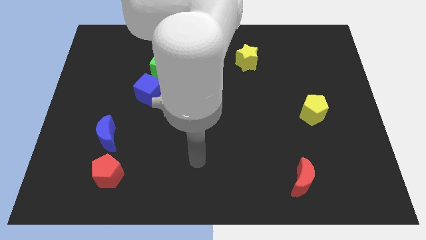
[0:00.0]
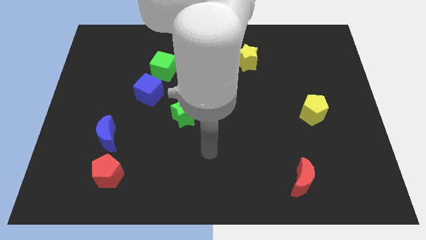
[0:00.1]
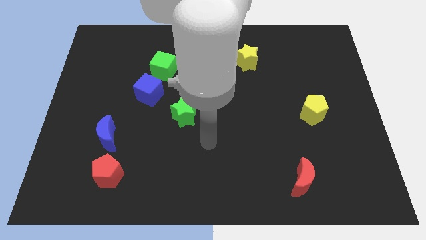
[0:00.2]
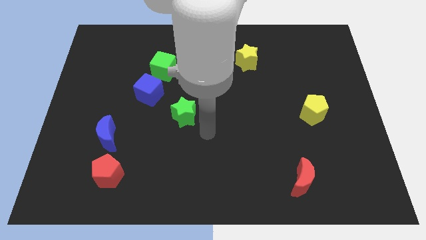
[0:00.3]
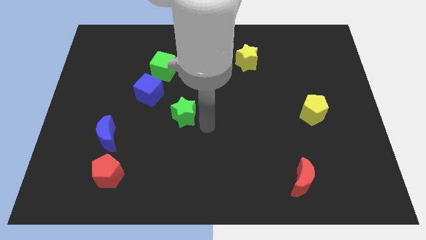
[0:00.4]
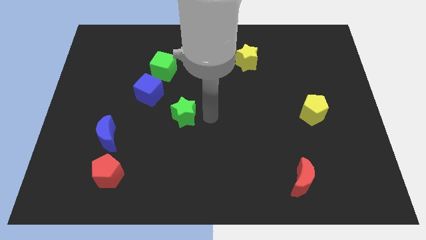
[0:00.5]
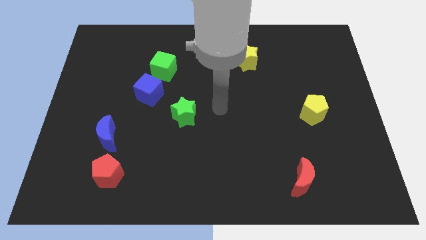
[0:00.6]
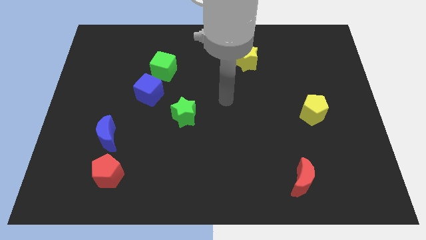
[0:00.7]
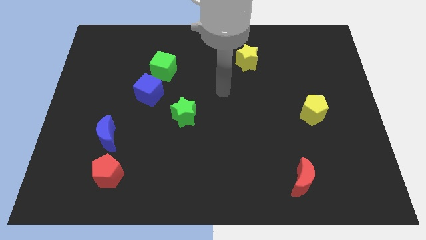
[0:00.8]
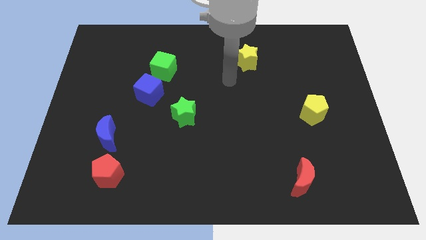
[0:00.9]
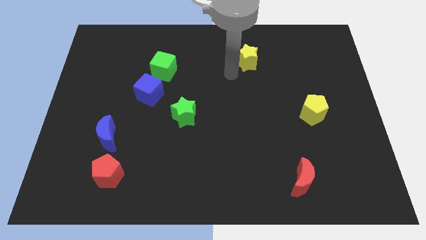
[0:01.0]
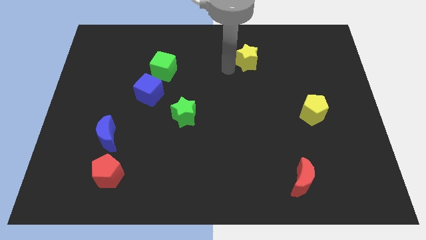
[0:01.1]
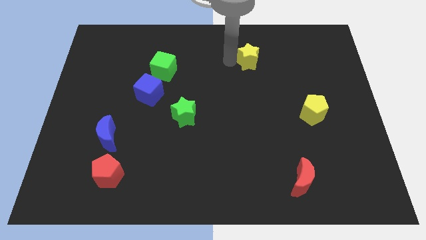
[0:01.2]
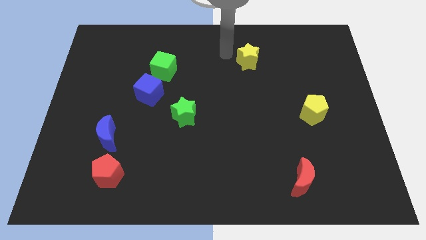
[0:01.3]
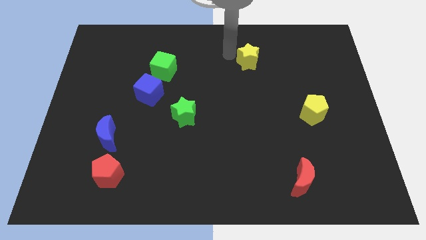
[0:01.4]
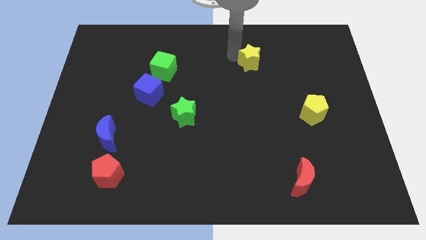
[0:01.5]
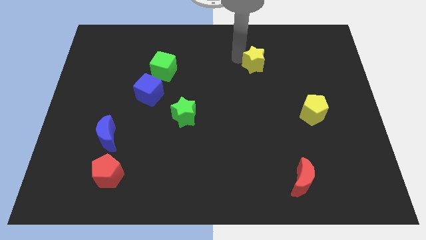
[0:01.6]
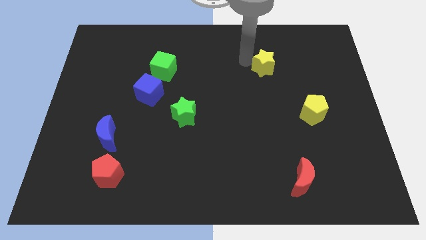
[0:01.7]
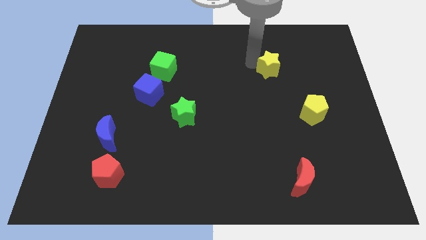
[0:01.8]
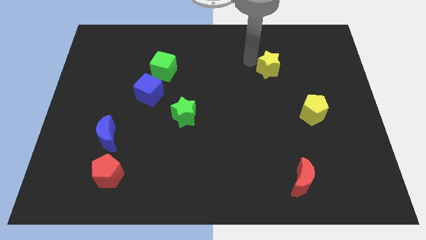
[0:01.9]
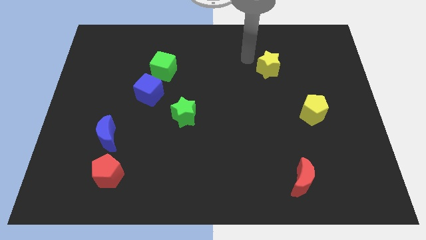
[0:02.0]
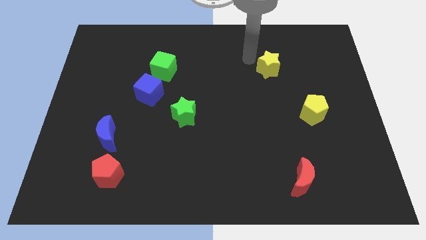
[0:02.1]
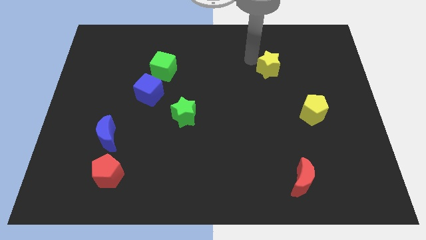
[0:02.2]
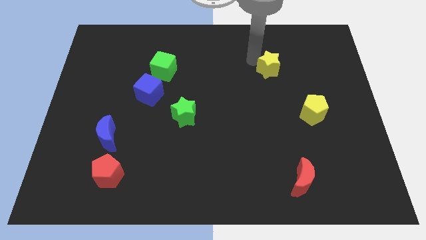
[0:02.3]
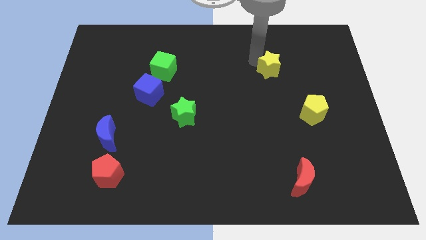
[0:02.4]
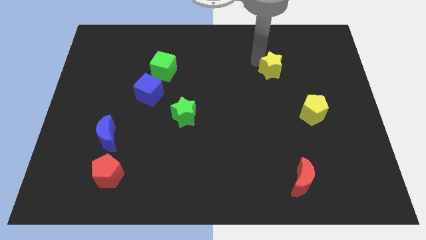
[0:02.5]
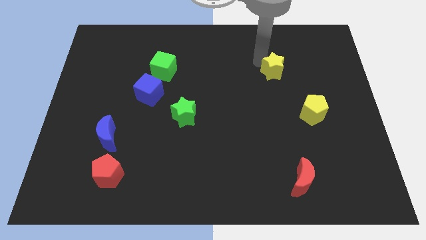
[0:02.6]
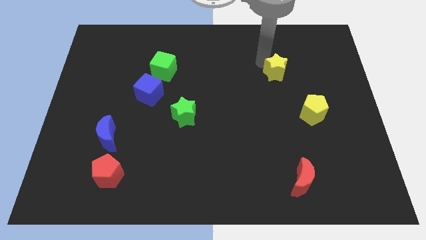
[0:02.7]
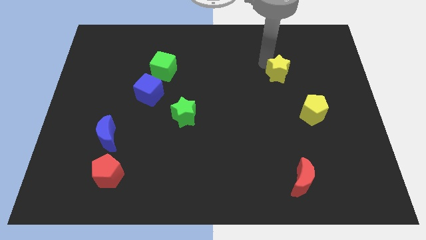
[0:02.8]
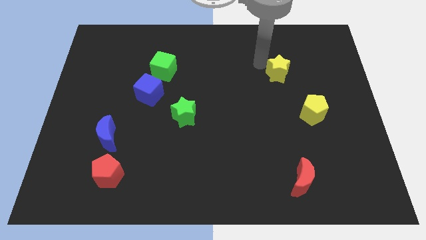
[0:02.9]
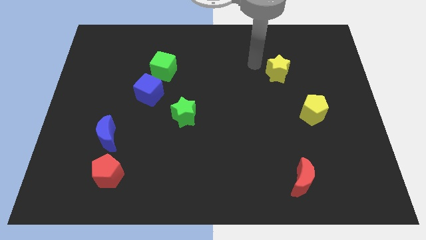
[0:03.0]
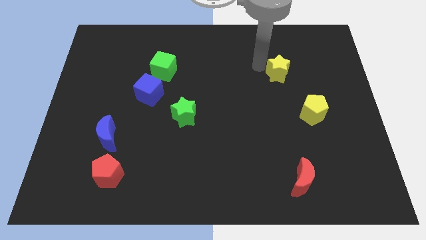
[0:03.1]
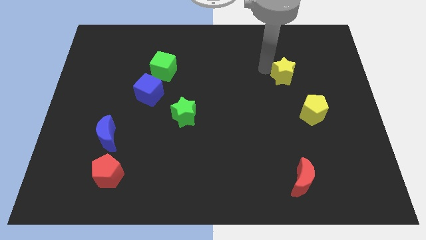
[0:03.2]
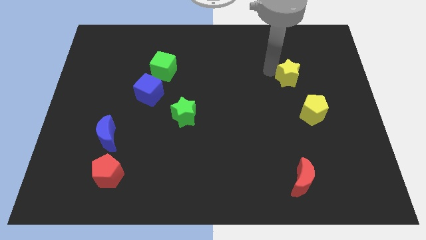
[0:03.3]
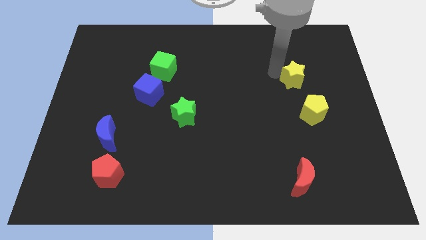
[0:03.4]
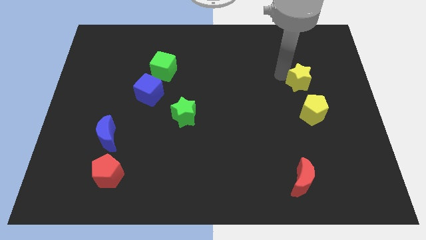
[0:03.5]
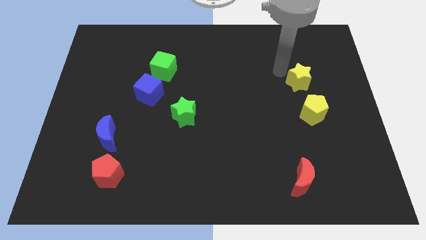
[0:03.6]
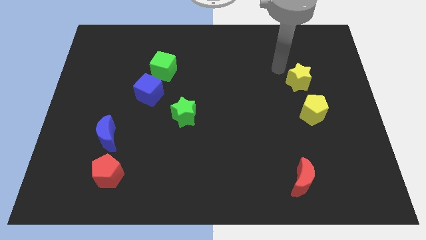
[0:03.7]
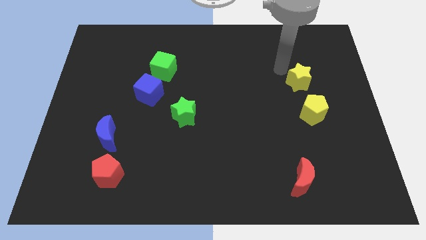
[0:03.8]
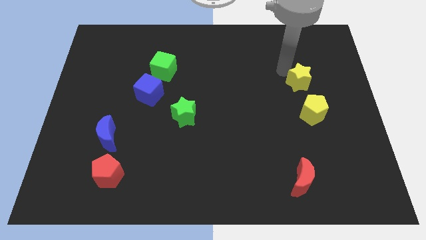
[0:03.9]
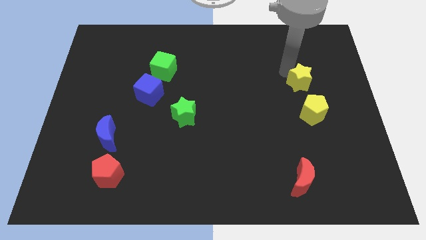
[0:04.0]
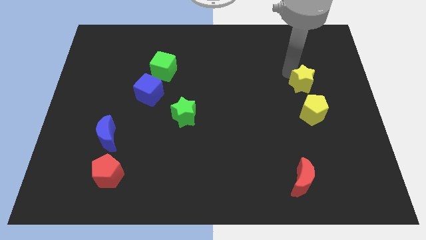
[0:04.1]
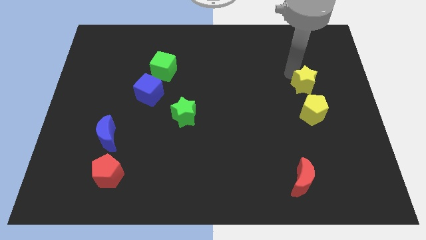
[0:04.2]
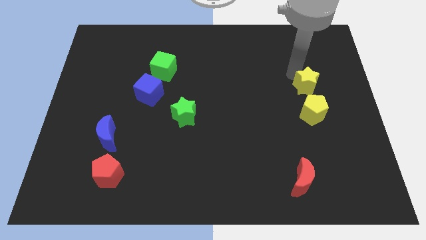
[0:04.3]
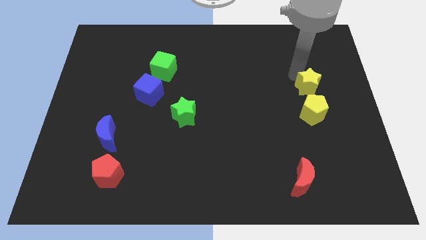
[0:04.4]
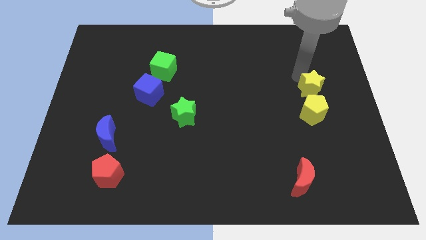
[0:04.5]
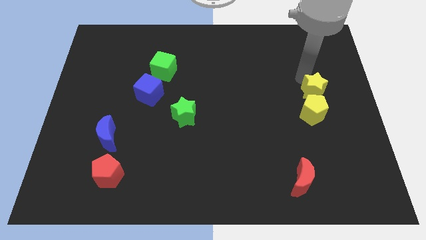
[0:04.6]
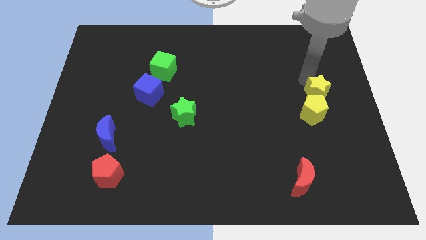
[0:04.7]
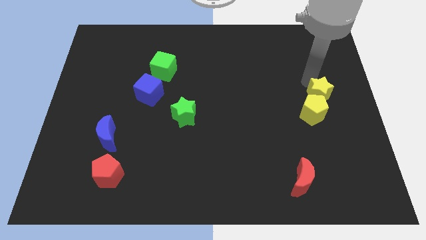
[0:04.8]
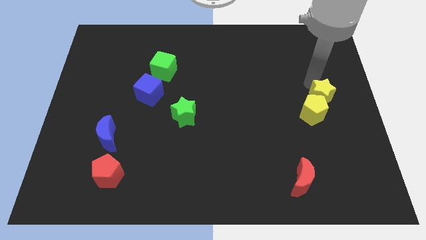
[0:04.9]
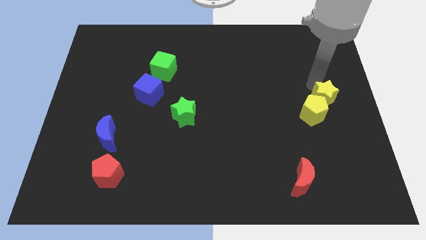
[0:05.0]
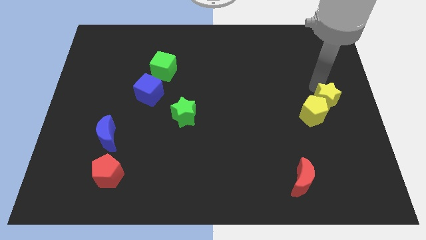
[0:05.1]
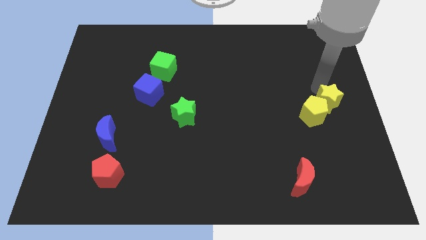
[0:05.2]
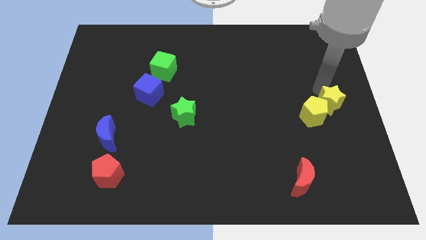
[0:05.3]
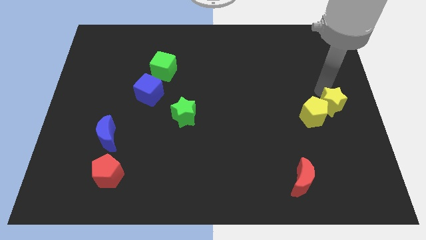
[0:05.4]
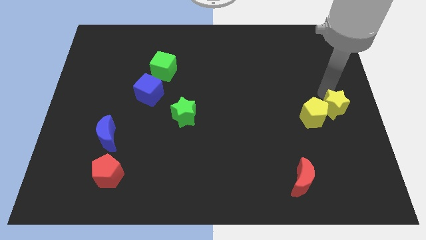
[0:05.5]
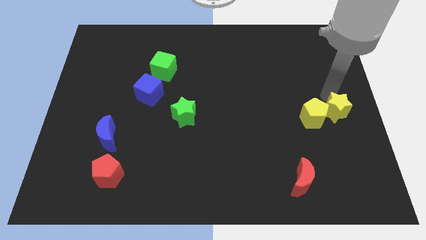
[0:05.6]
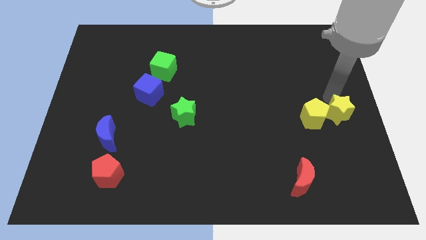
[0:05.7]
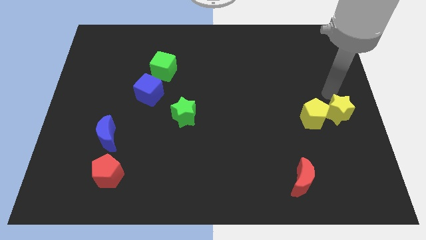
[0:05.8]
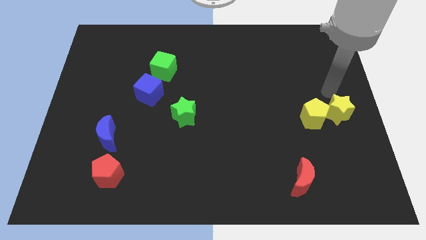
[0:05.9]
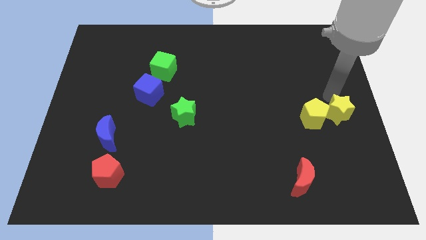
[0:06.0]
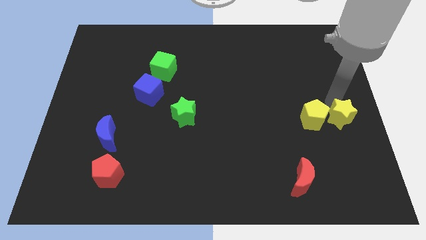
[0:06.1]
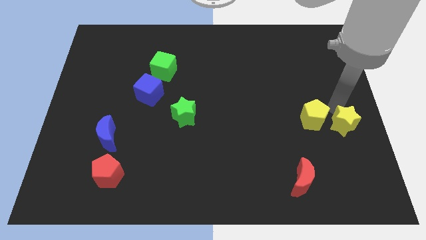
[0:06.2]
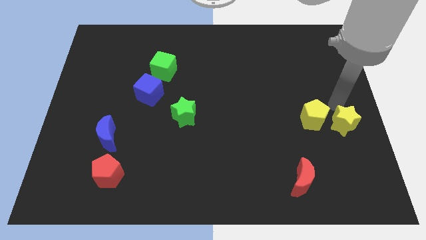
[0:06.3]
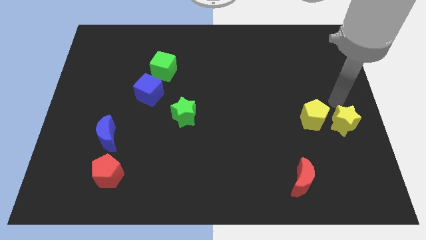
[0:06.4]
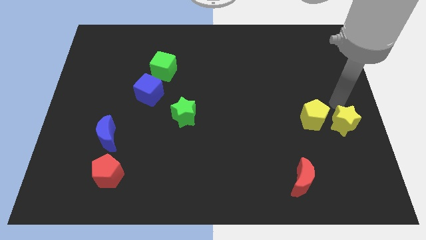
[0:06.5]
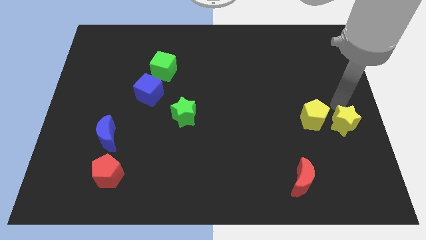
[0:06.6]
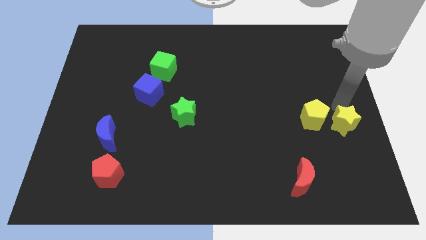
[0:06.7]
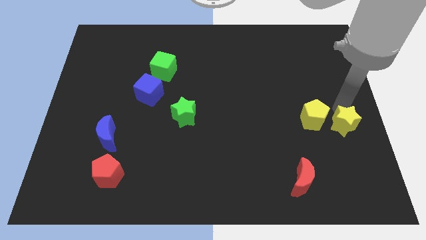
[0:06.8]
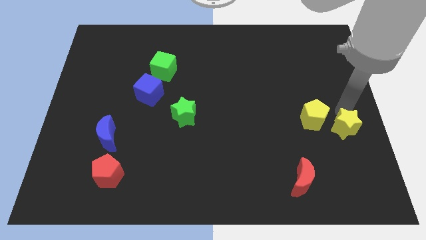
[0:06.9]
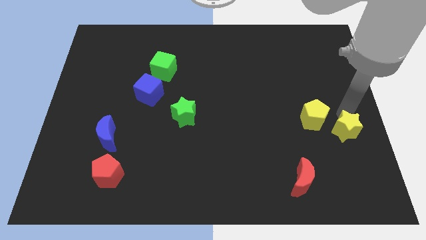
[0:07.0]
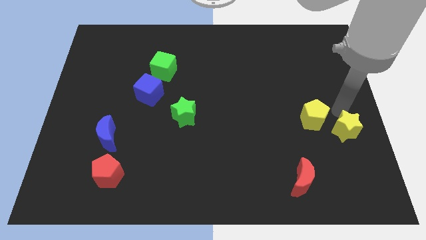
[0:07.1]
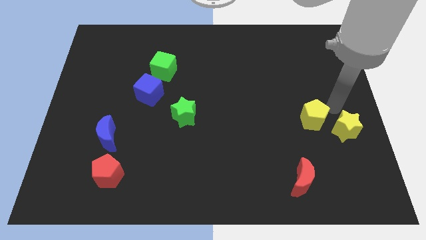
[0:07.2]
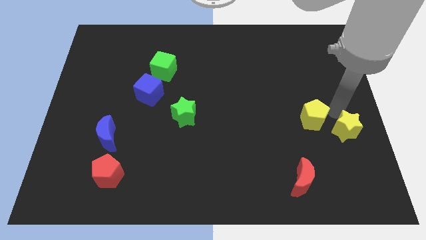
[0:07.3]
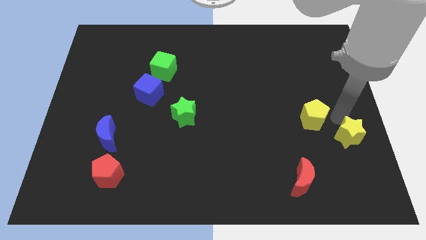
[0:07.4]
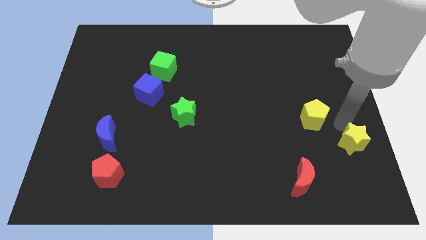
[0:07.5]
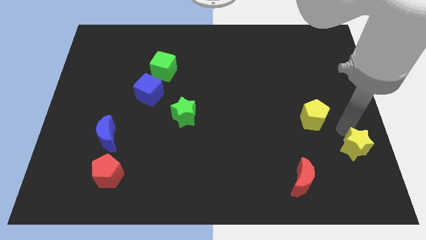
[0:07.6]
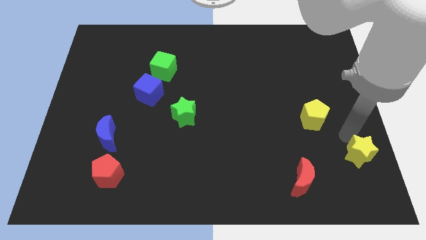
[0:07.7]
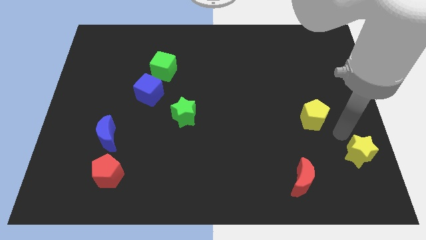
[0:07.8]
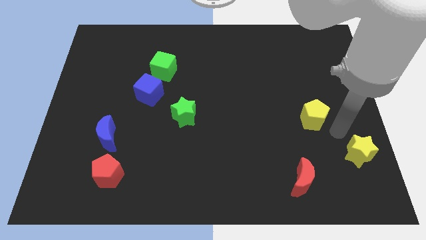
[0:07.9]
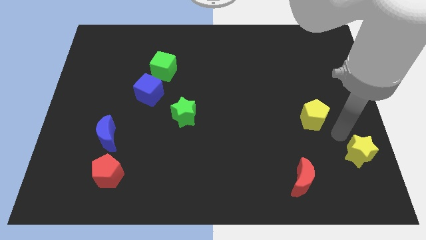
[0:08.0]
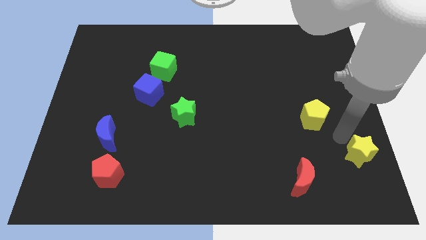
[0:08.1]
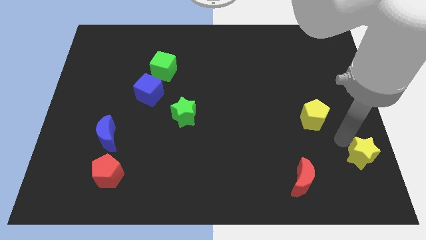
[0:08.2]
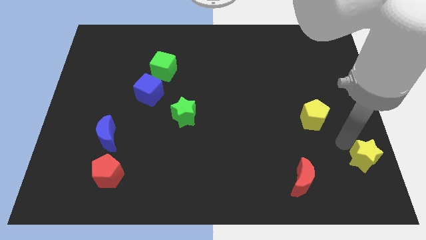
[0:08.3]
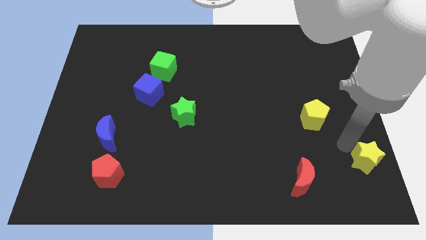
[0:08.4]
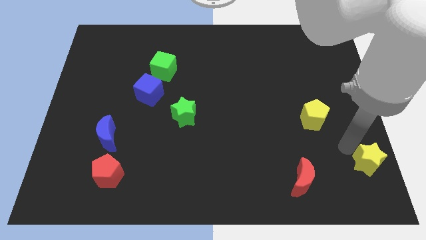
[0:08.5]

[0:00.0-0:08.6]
push the yellow star to the bottom right of the board
